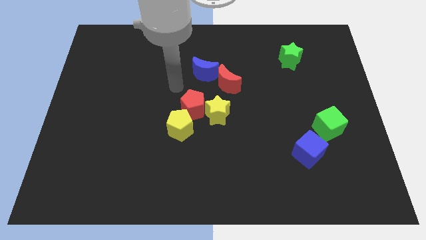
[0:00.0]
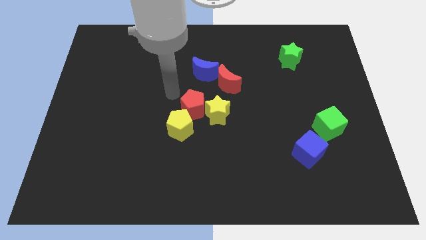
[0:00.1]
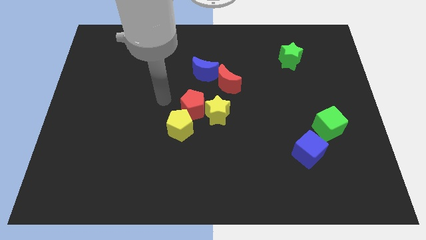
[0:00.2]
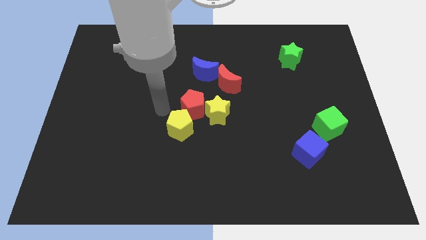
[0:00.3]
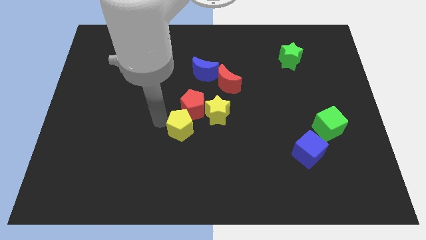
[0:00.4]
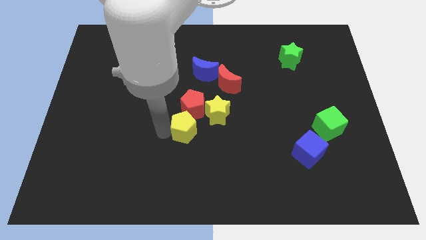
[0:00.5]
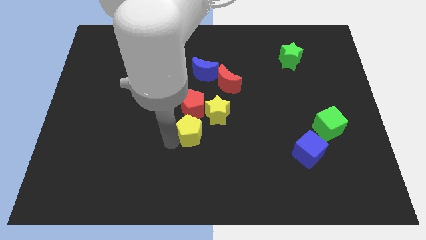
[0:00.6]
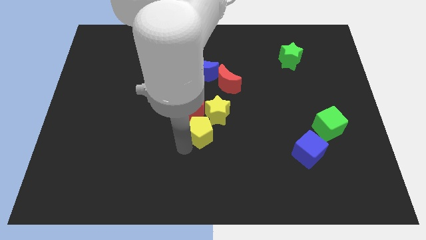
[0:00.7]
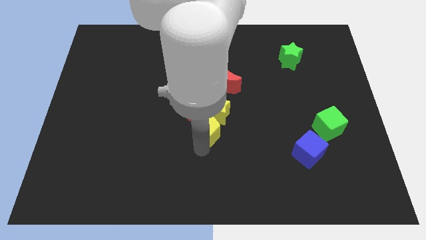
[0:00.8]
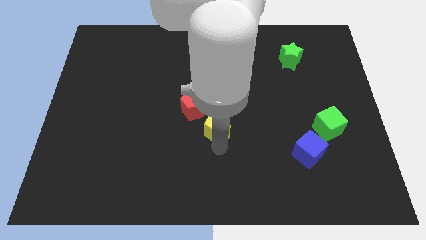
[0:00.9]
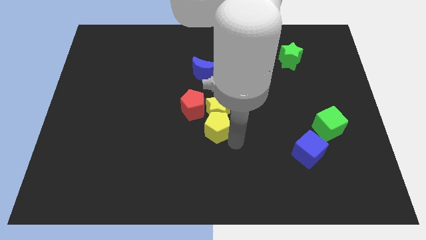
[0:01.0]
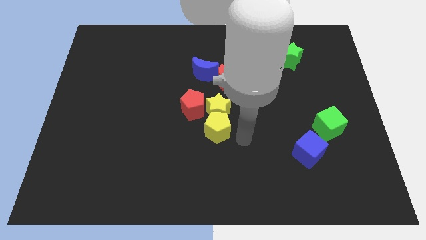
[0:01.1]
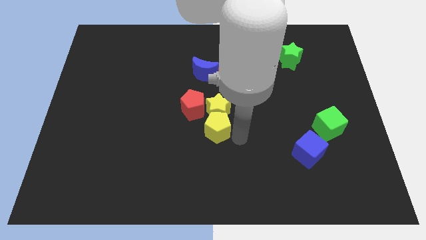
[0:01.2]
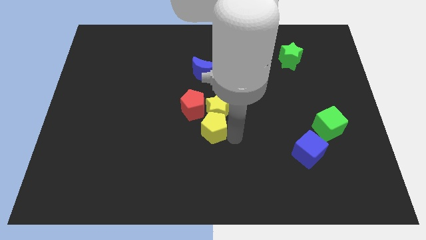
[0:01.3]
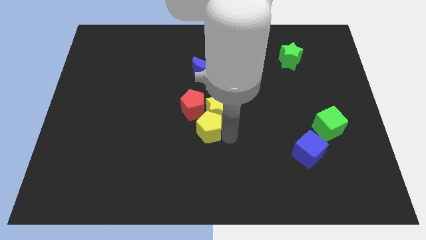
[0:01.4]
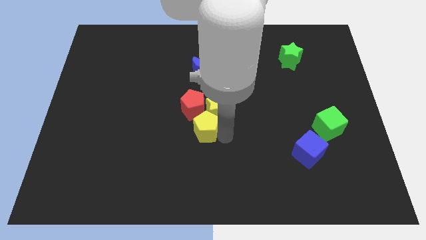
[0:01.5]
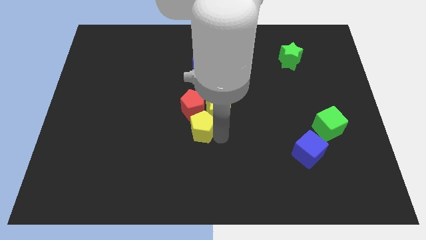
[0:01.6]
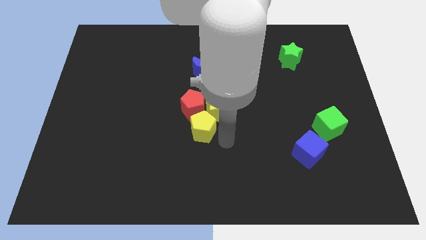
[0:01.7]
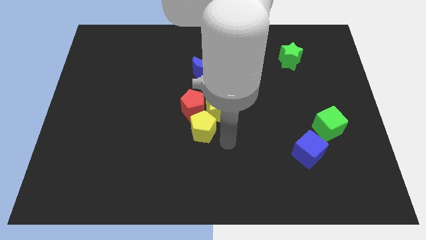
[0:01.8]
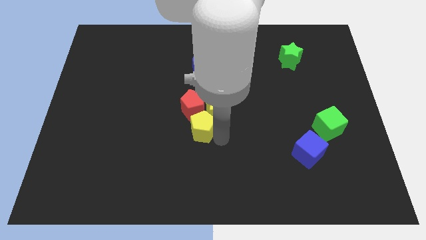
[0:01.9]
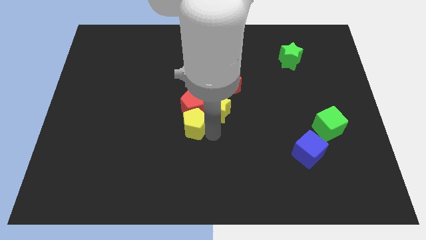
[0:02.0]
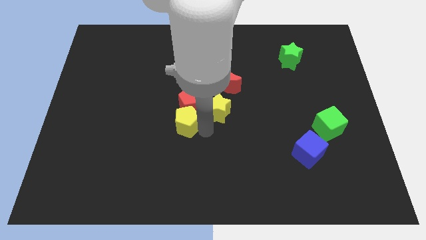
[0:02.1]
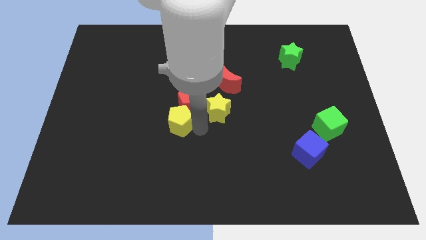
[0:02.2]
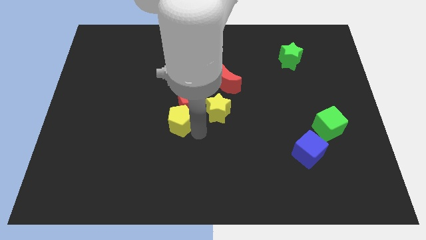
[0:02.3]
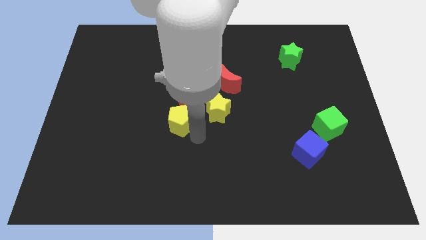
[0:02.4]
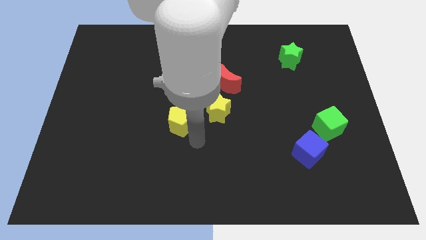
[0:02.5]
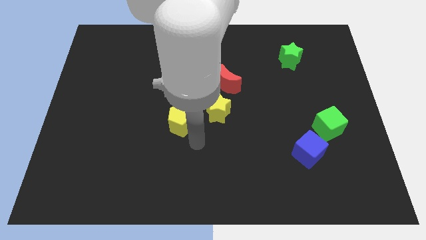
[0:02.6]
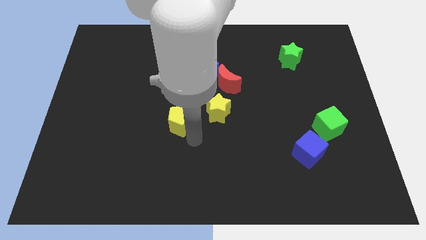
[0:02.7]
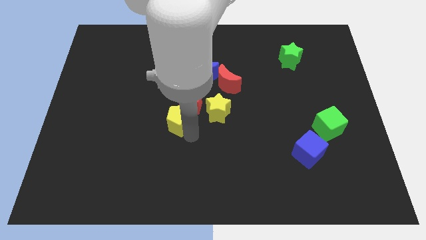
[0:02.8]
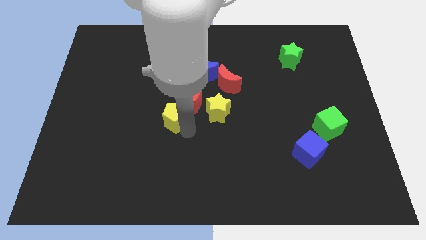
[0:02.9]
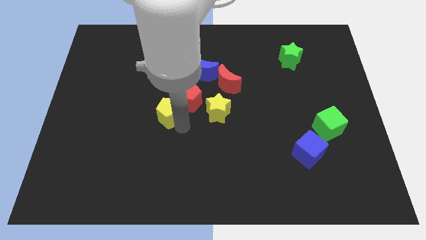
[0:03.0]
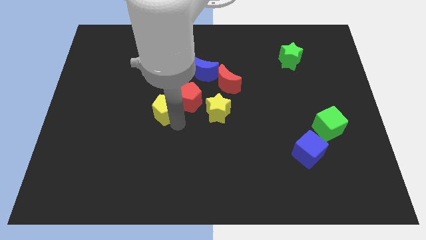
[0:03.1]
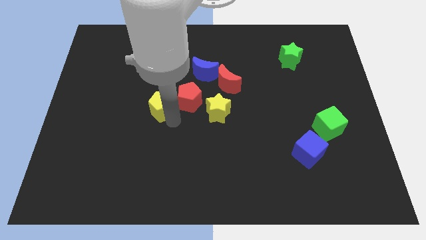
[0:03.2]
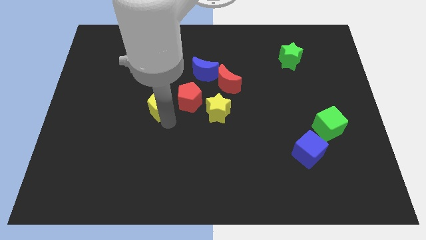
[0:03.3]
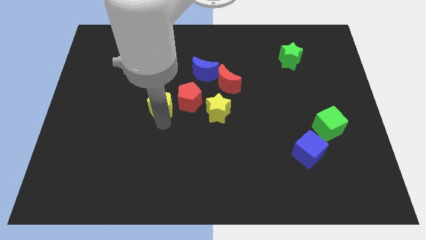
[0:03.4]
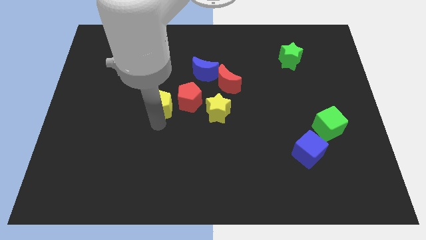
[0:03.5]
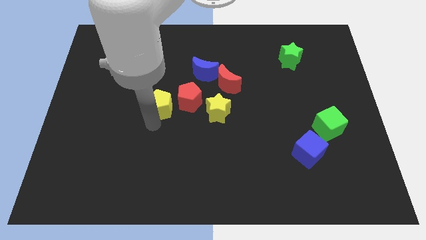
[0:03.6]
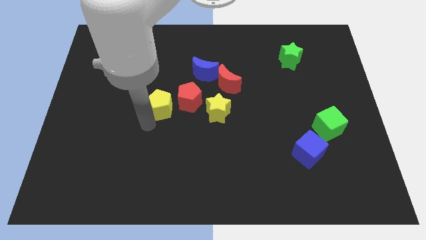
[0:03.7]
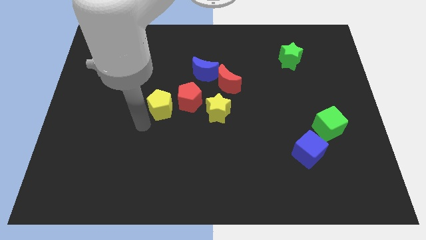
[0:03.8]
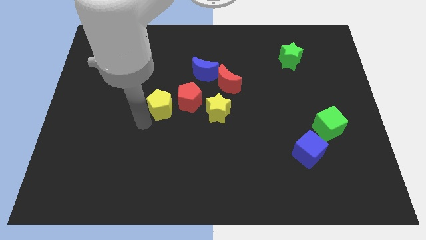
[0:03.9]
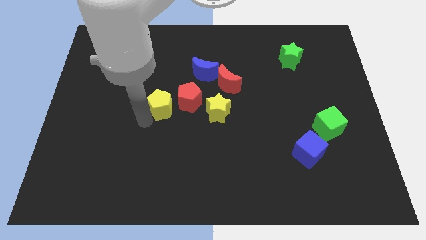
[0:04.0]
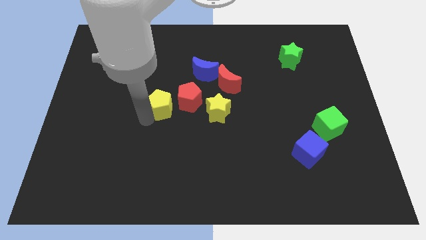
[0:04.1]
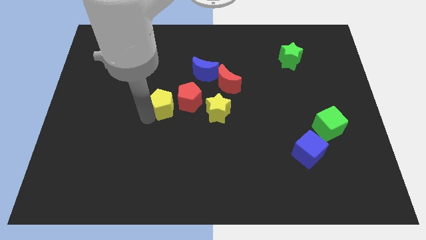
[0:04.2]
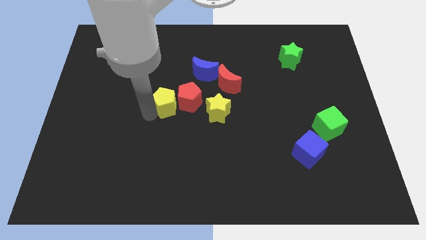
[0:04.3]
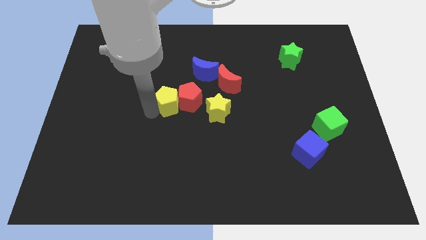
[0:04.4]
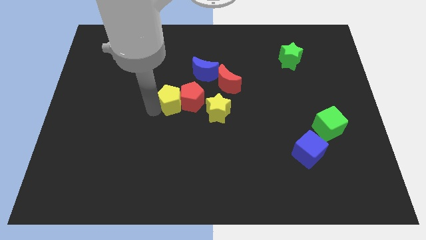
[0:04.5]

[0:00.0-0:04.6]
push the yellow pentagon a little up

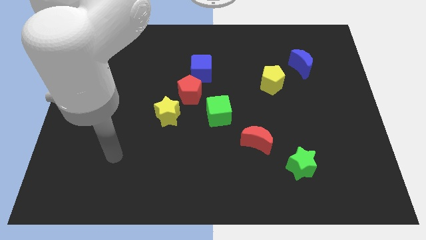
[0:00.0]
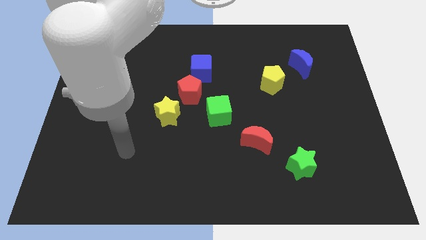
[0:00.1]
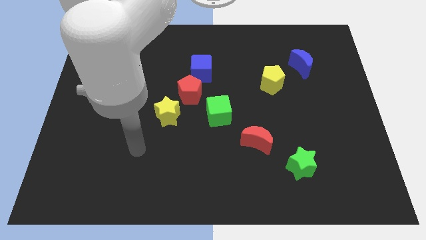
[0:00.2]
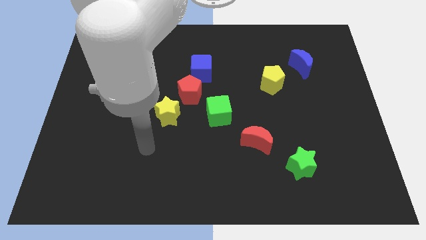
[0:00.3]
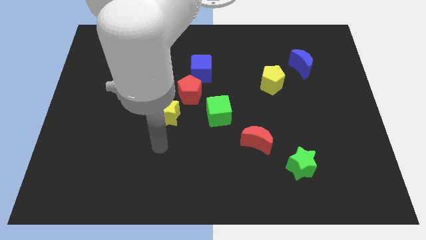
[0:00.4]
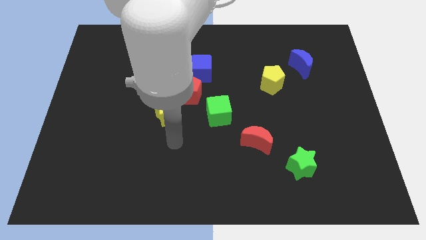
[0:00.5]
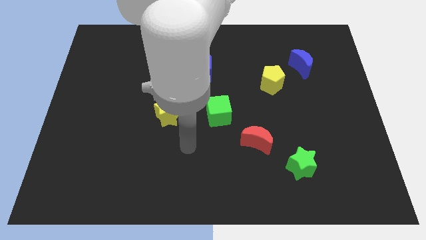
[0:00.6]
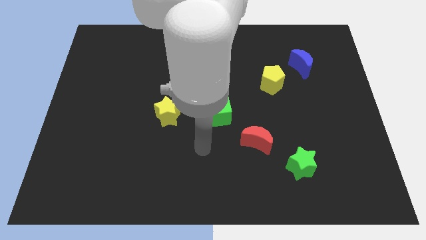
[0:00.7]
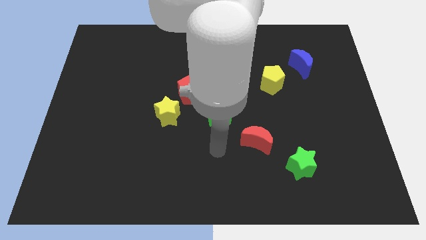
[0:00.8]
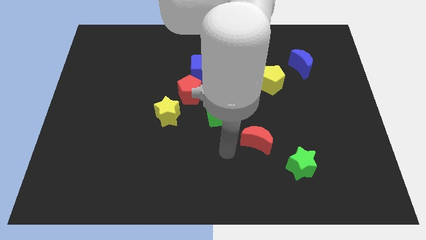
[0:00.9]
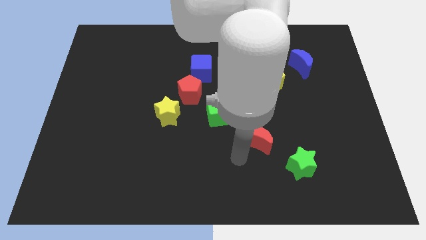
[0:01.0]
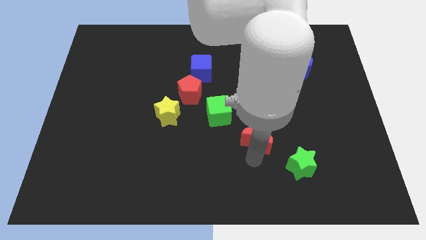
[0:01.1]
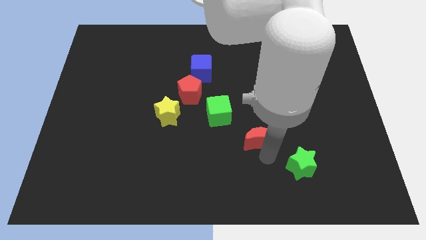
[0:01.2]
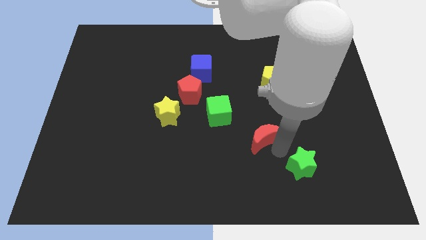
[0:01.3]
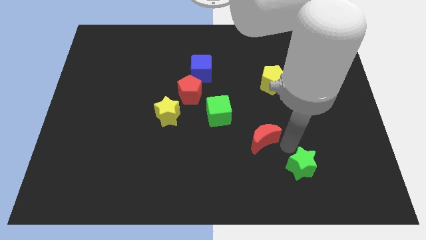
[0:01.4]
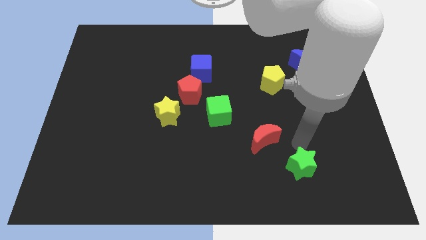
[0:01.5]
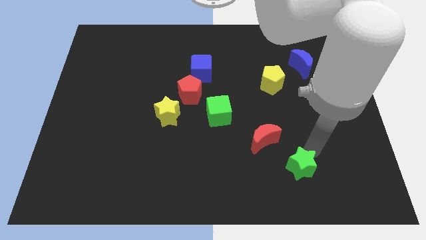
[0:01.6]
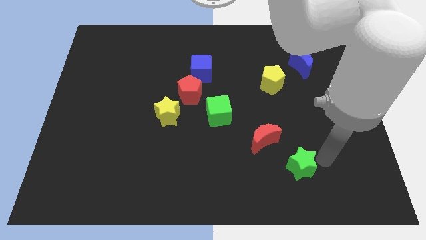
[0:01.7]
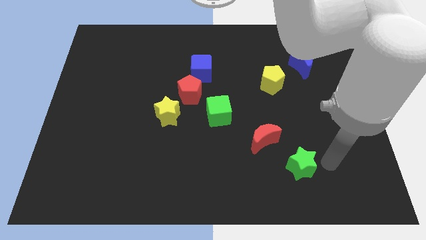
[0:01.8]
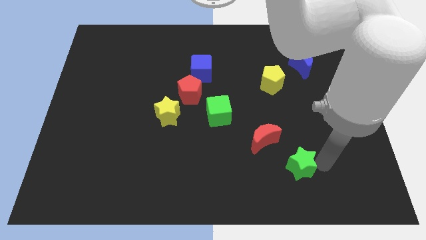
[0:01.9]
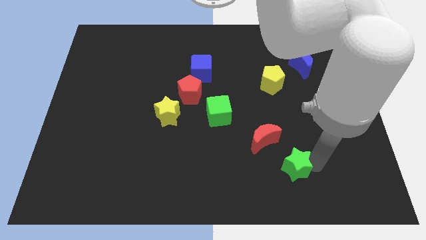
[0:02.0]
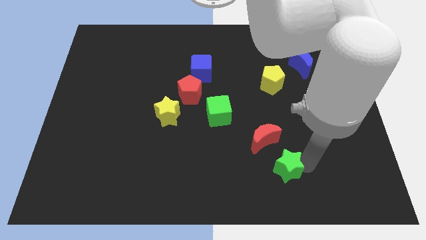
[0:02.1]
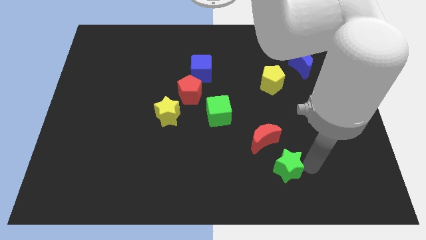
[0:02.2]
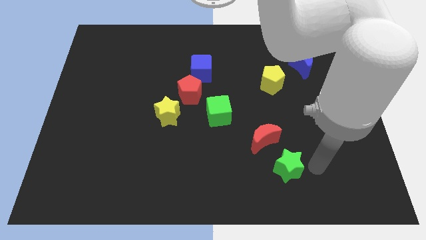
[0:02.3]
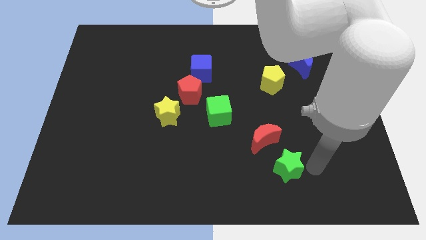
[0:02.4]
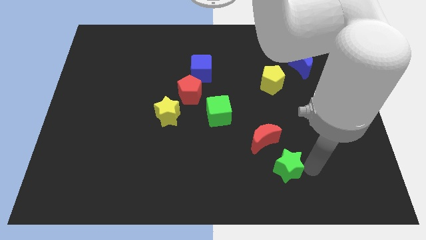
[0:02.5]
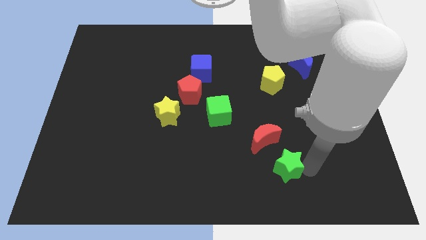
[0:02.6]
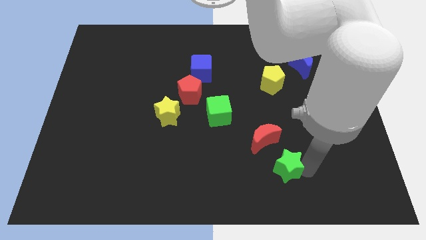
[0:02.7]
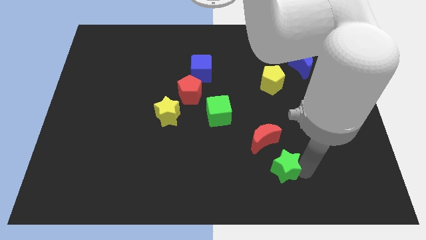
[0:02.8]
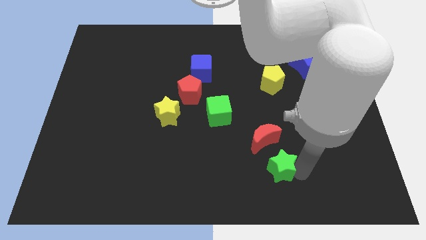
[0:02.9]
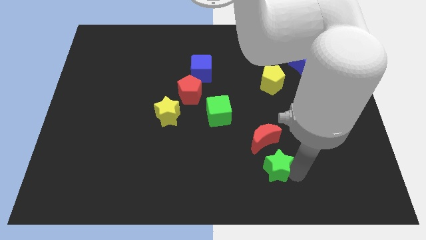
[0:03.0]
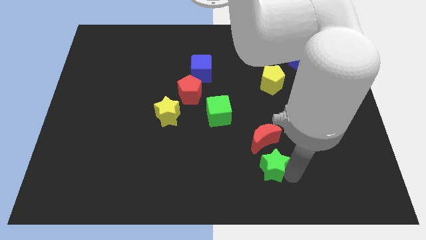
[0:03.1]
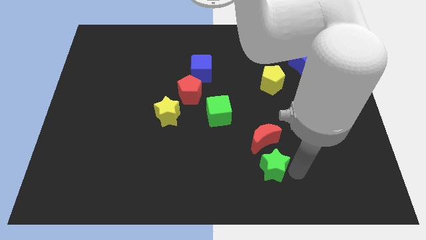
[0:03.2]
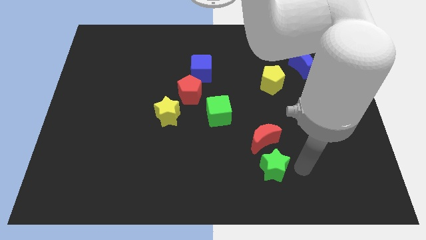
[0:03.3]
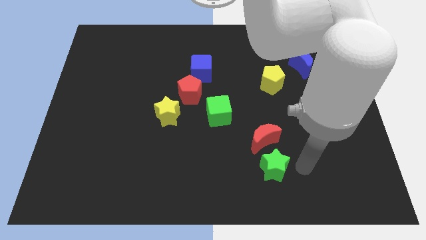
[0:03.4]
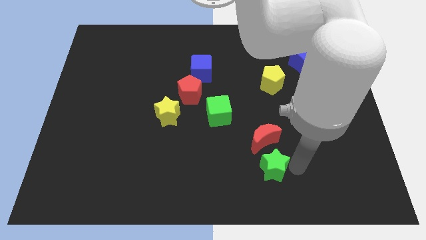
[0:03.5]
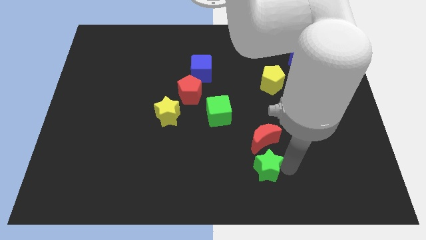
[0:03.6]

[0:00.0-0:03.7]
push the green star left a little bit
